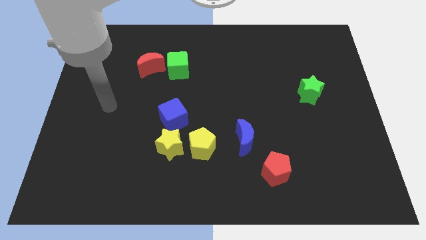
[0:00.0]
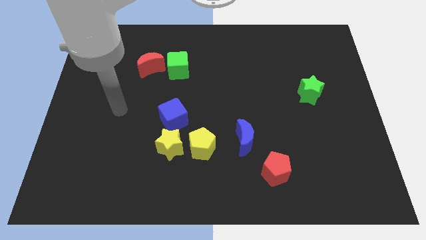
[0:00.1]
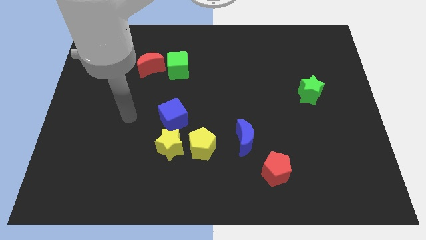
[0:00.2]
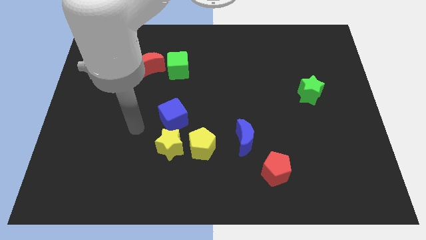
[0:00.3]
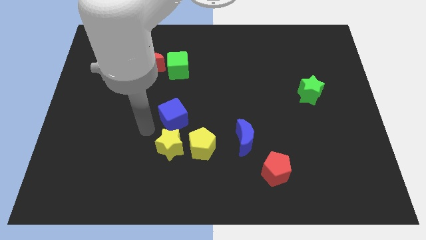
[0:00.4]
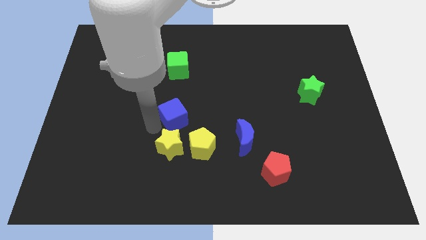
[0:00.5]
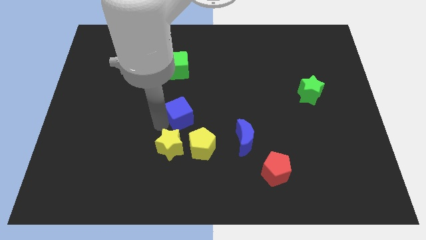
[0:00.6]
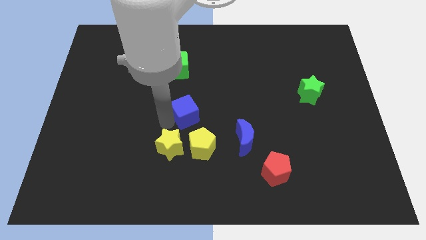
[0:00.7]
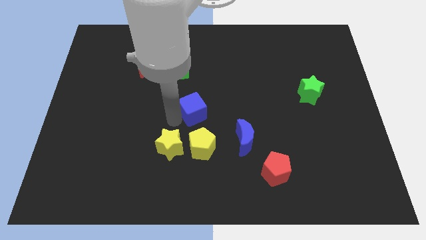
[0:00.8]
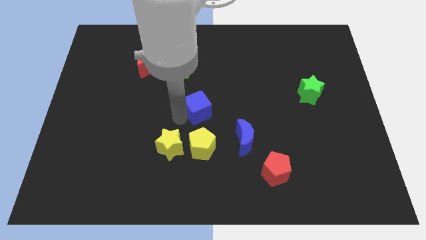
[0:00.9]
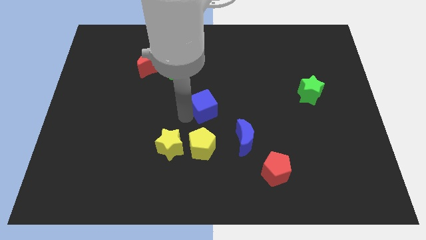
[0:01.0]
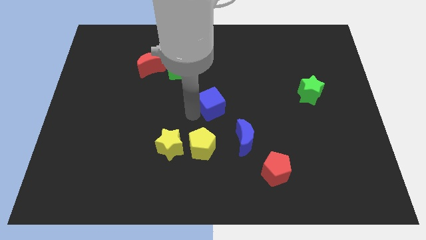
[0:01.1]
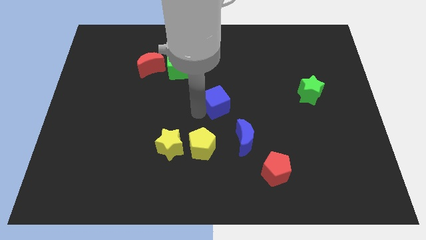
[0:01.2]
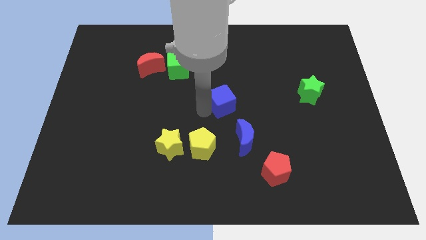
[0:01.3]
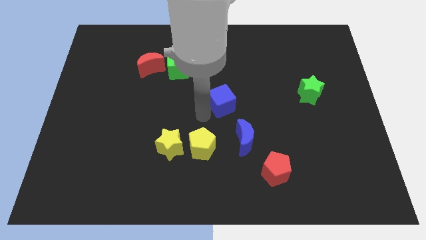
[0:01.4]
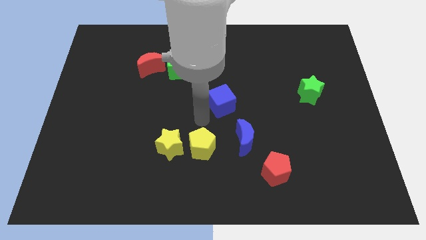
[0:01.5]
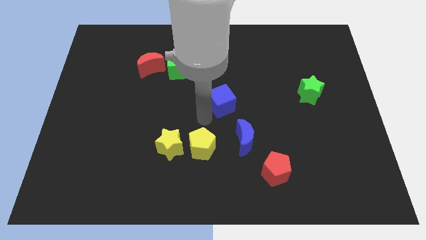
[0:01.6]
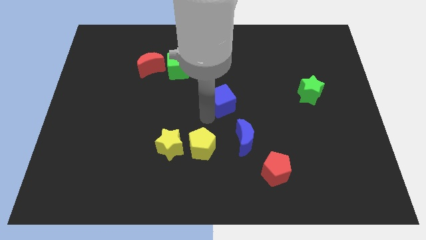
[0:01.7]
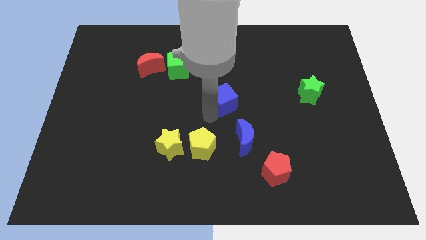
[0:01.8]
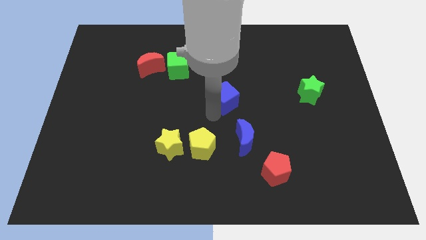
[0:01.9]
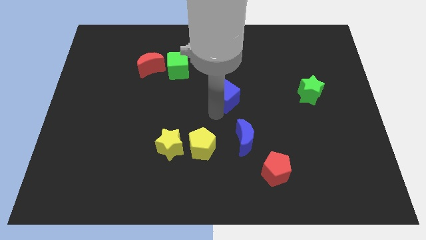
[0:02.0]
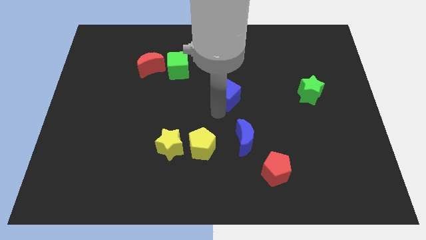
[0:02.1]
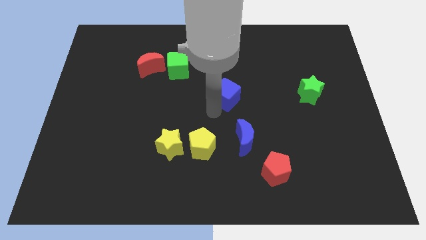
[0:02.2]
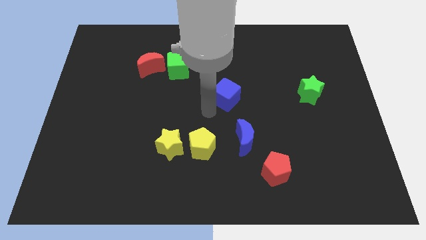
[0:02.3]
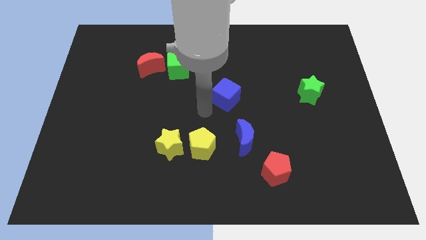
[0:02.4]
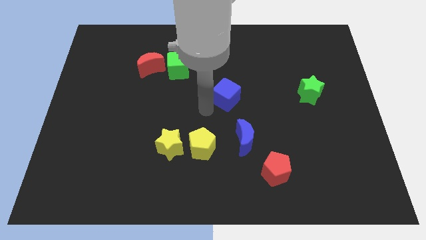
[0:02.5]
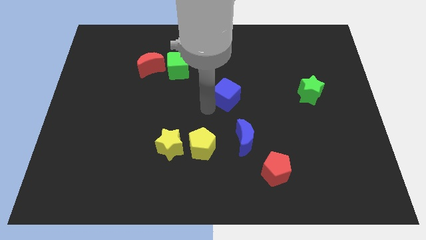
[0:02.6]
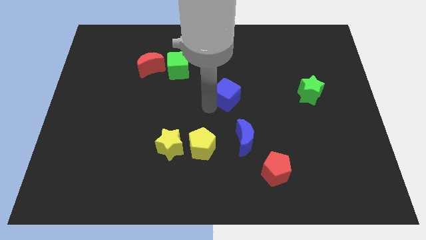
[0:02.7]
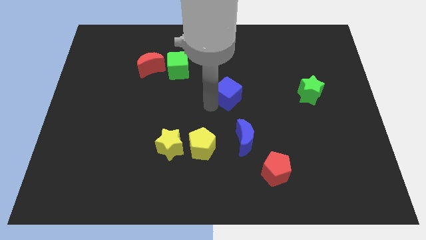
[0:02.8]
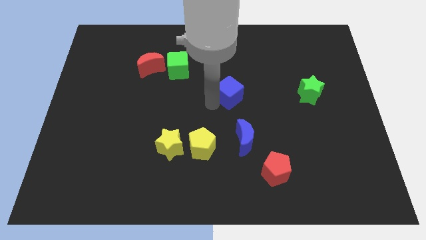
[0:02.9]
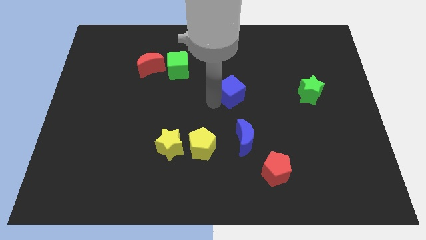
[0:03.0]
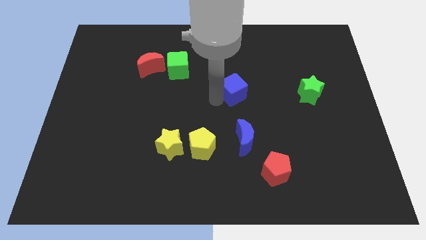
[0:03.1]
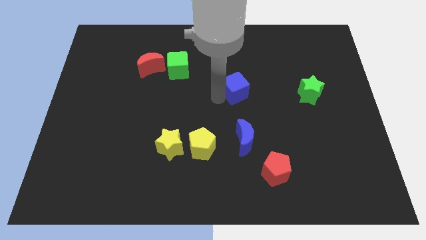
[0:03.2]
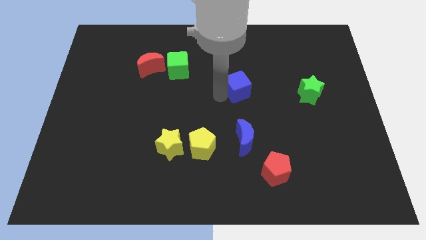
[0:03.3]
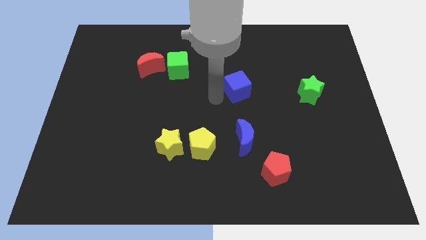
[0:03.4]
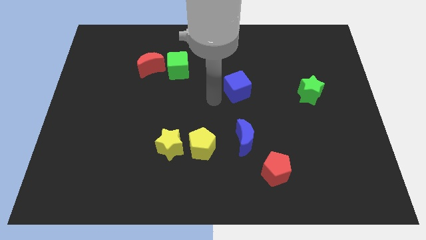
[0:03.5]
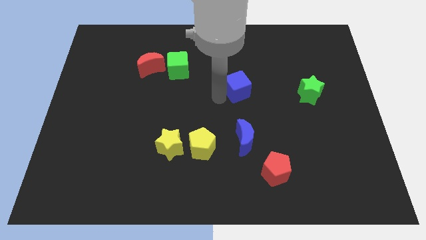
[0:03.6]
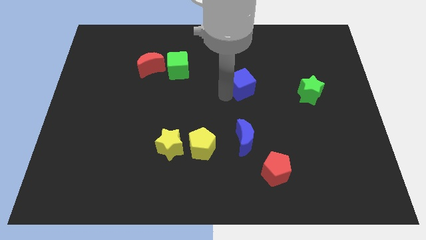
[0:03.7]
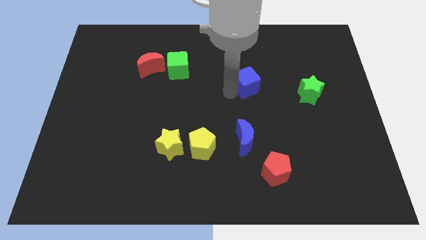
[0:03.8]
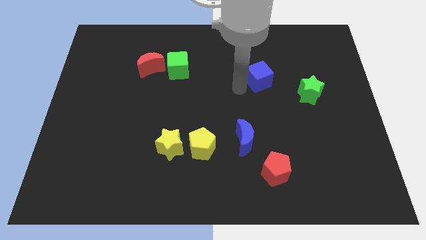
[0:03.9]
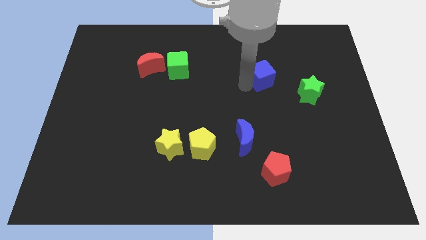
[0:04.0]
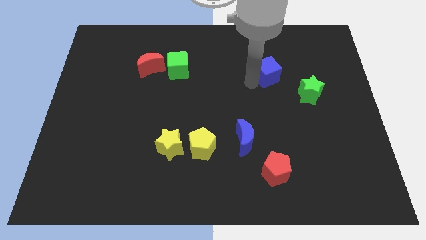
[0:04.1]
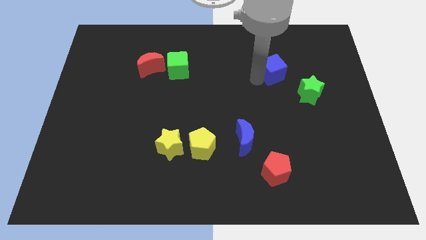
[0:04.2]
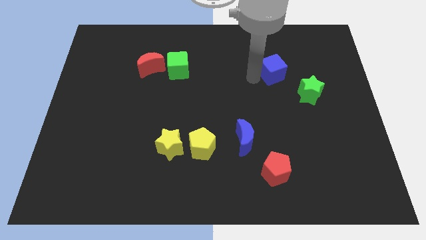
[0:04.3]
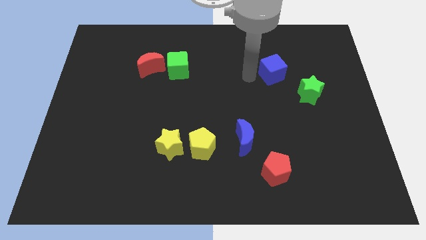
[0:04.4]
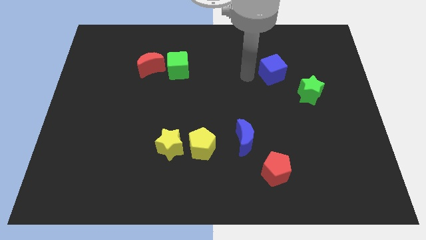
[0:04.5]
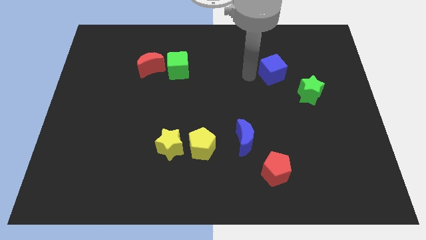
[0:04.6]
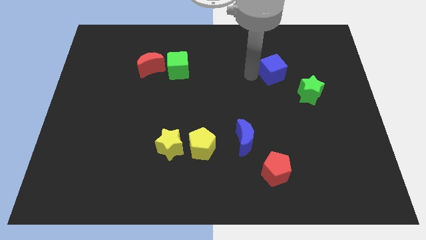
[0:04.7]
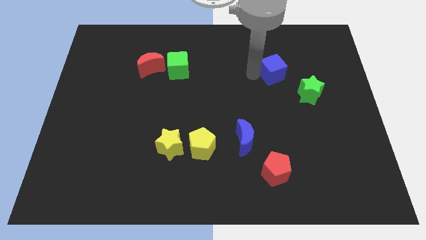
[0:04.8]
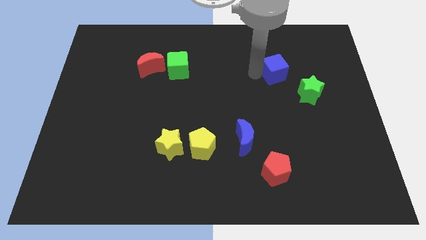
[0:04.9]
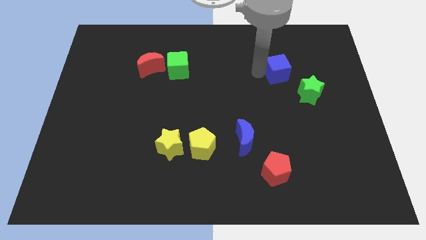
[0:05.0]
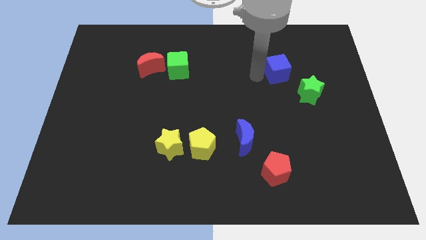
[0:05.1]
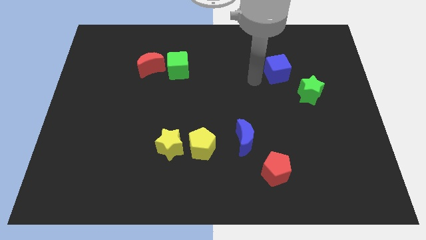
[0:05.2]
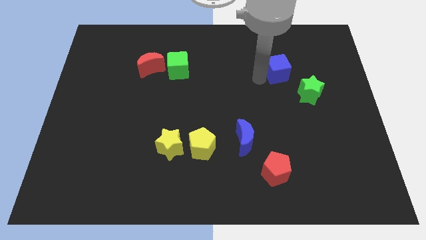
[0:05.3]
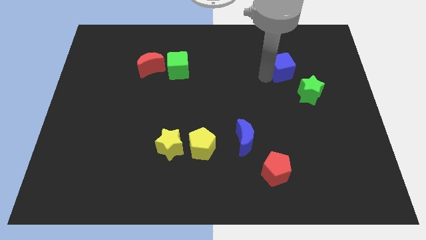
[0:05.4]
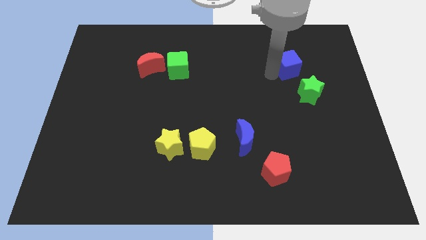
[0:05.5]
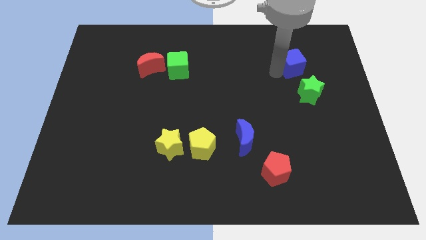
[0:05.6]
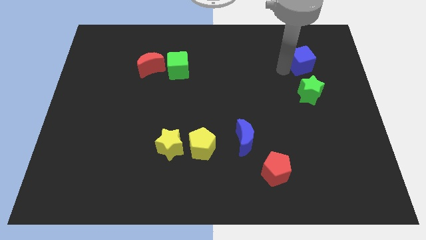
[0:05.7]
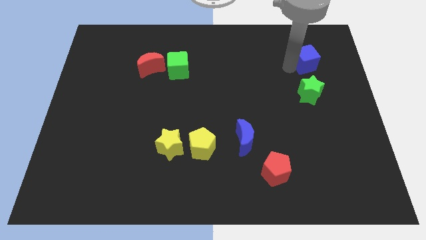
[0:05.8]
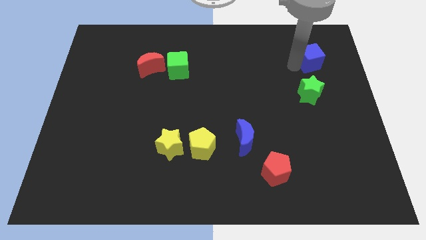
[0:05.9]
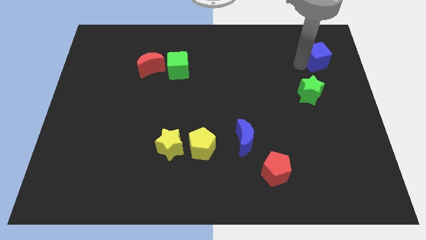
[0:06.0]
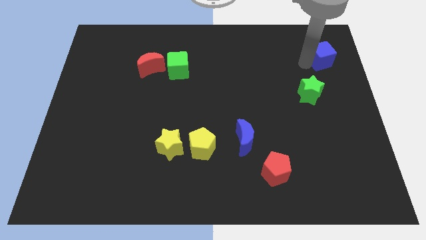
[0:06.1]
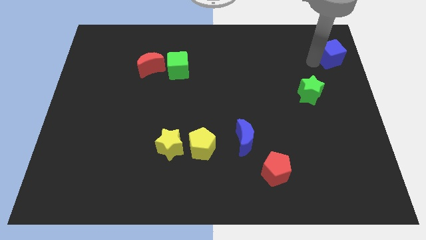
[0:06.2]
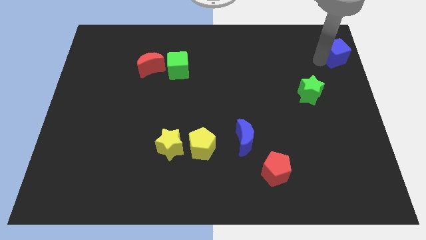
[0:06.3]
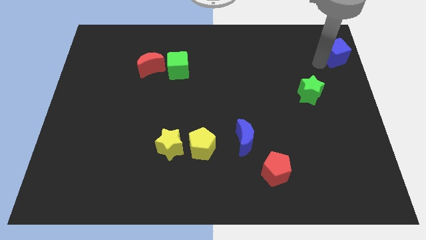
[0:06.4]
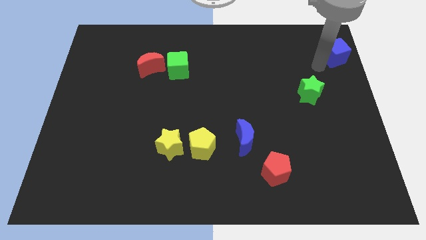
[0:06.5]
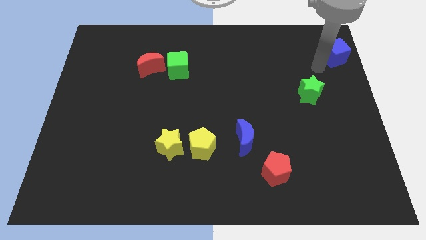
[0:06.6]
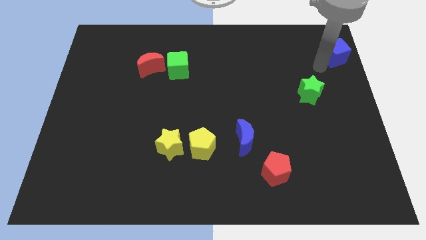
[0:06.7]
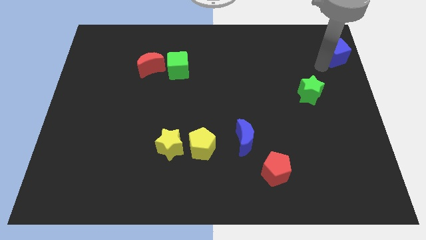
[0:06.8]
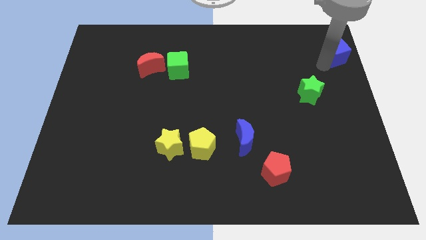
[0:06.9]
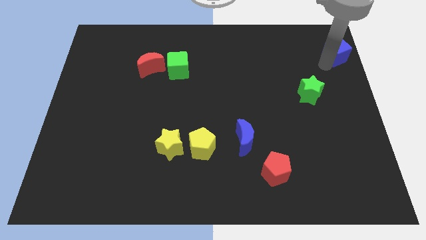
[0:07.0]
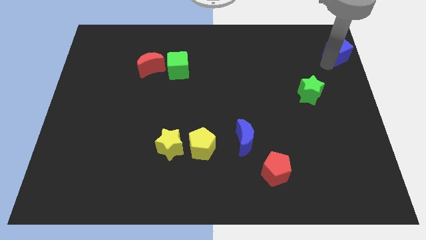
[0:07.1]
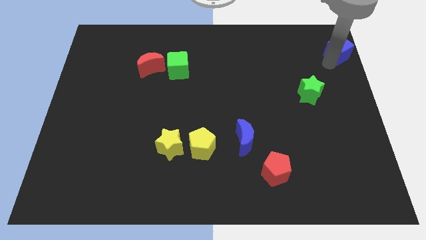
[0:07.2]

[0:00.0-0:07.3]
push the blue cube to the top right of the board

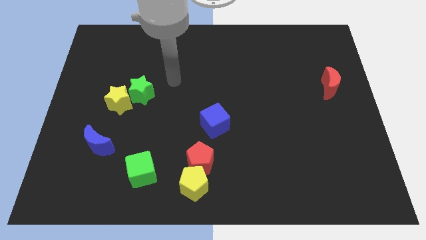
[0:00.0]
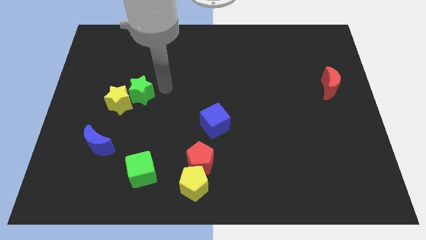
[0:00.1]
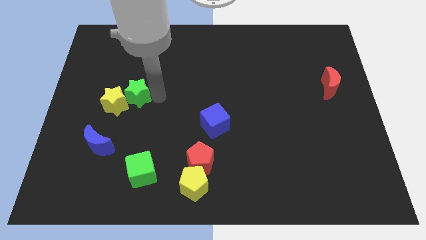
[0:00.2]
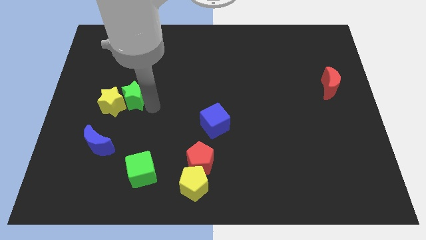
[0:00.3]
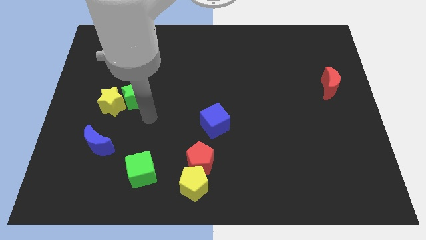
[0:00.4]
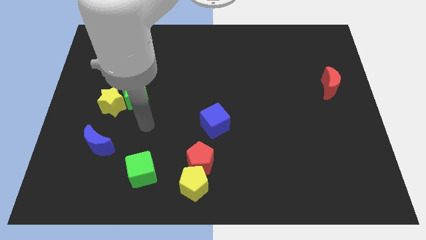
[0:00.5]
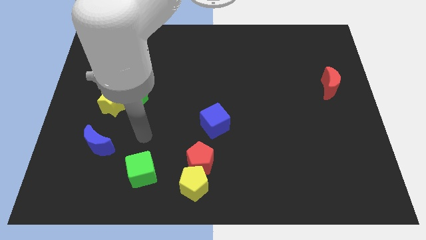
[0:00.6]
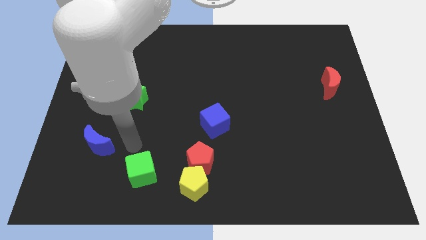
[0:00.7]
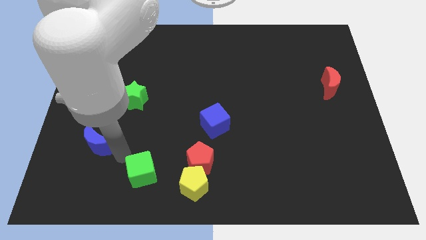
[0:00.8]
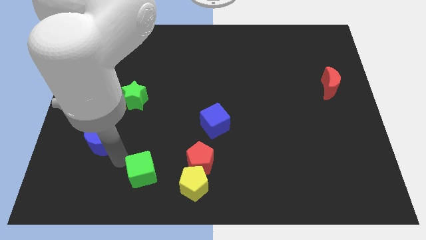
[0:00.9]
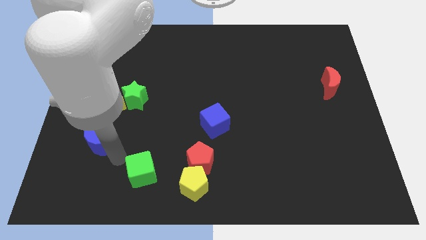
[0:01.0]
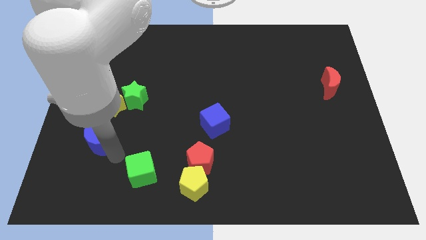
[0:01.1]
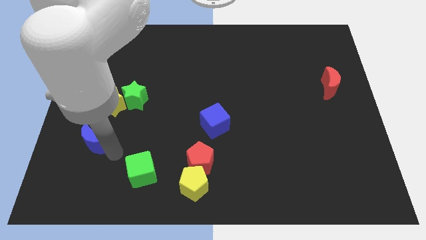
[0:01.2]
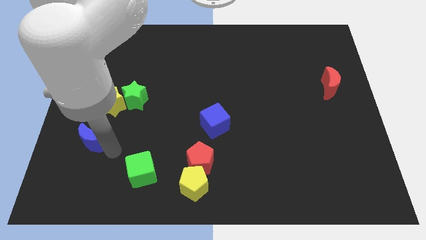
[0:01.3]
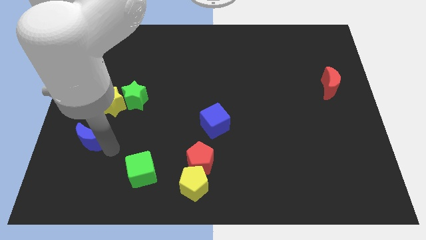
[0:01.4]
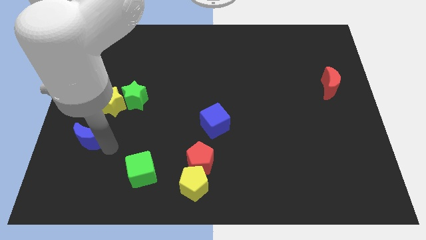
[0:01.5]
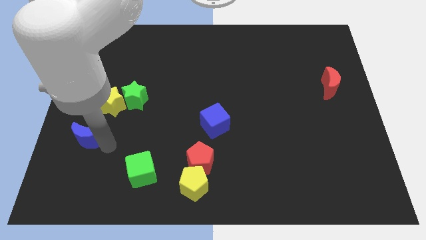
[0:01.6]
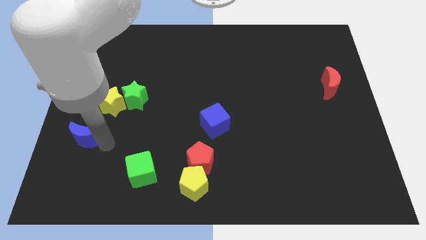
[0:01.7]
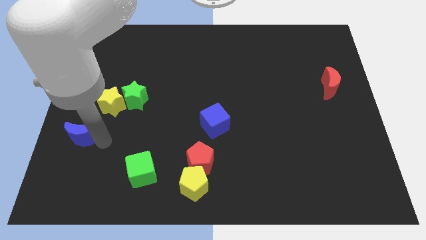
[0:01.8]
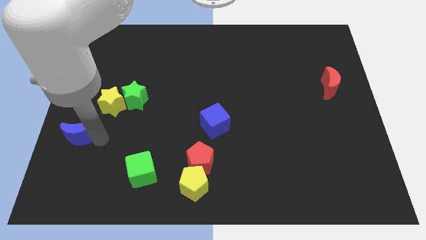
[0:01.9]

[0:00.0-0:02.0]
slide the blue moon to the left side of the board
